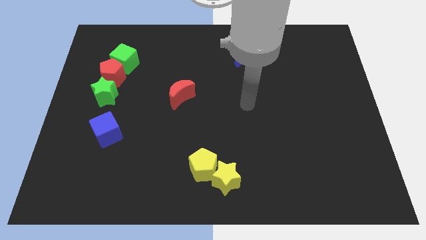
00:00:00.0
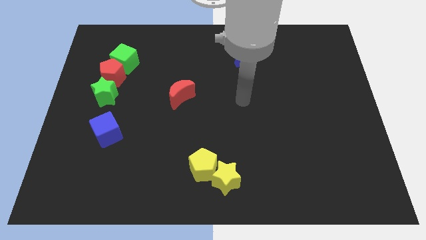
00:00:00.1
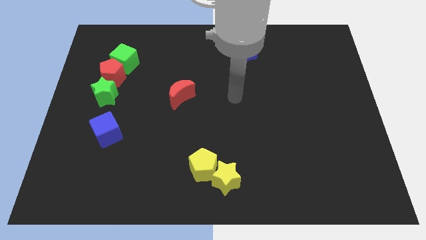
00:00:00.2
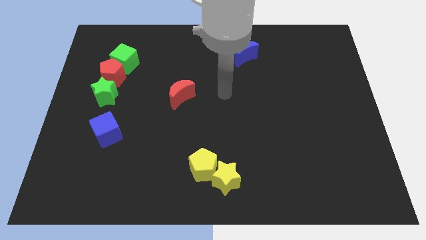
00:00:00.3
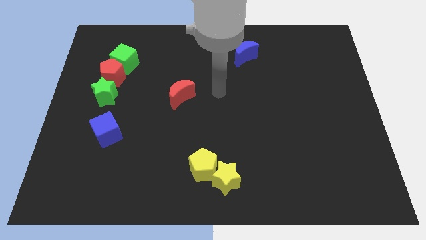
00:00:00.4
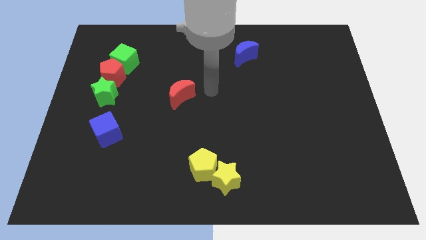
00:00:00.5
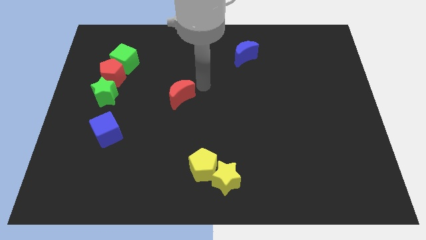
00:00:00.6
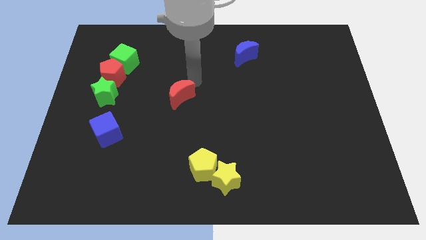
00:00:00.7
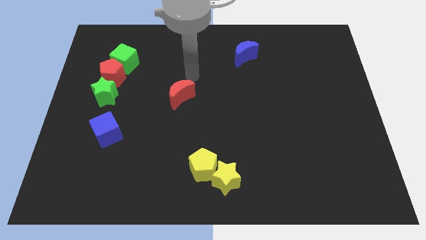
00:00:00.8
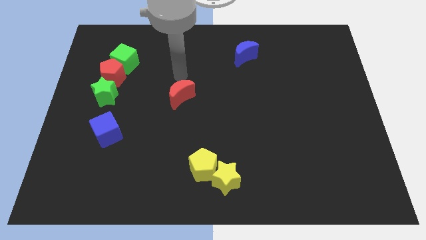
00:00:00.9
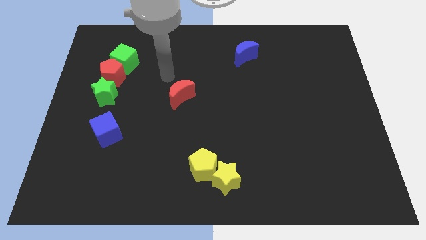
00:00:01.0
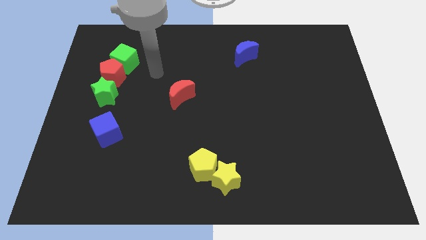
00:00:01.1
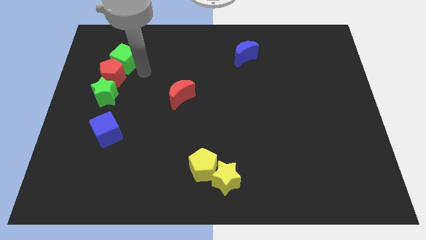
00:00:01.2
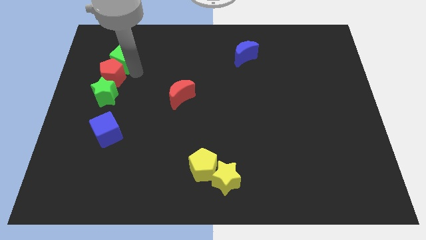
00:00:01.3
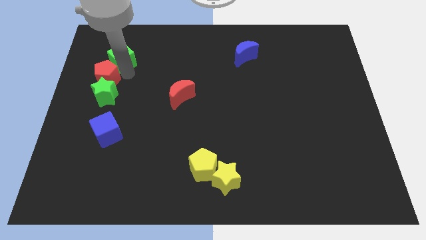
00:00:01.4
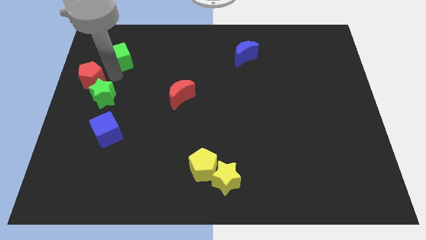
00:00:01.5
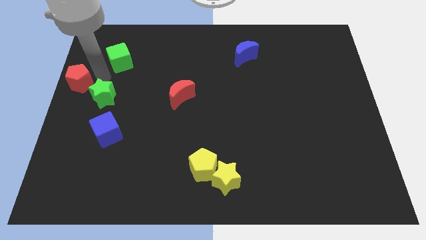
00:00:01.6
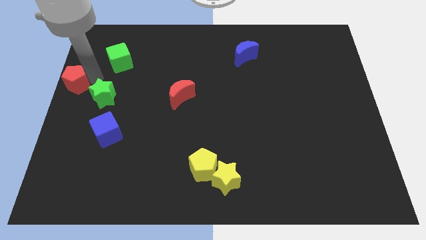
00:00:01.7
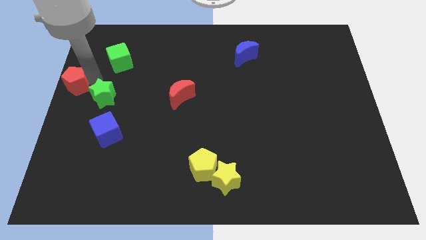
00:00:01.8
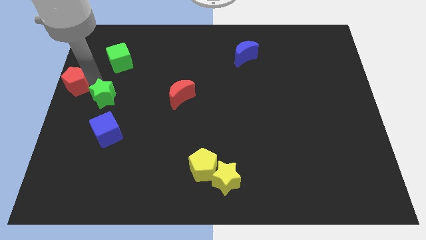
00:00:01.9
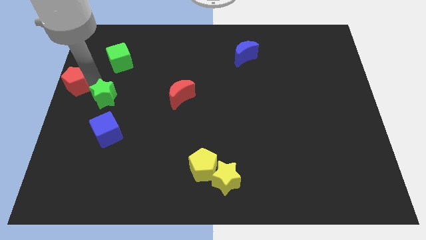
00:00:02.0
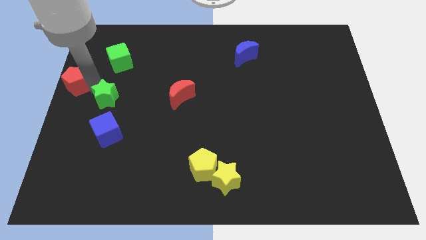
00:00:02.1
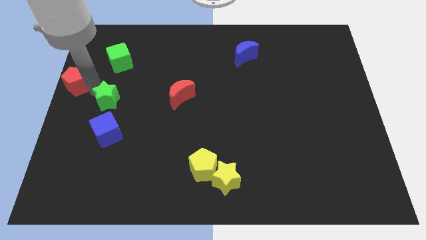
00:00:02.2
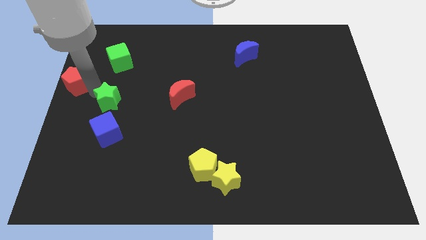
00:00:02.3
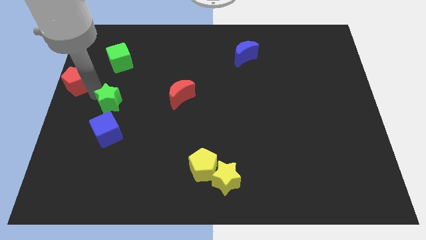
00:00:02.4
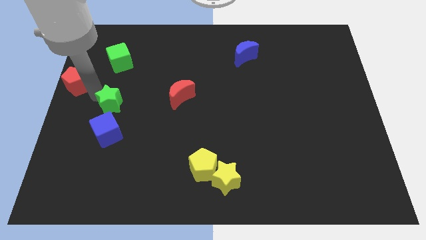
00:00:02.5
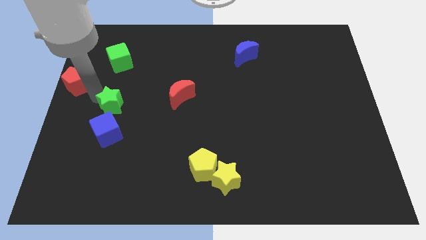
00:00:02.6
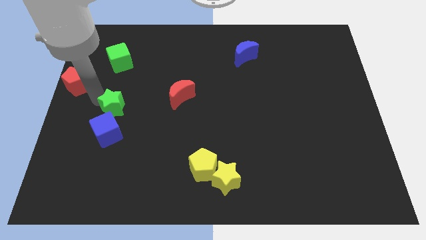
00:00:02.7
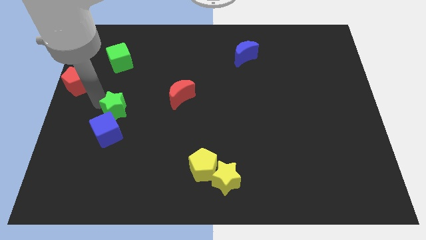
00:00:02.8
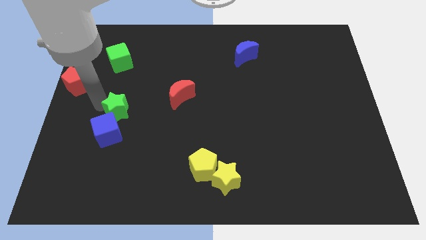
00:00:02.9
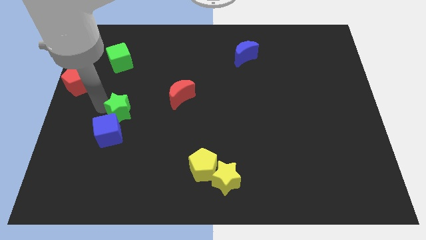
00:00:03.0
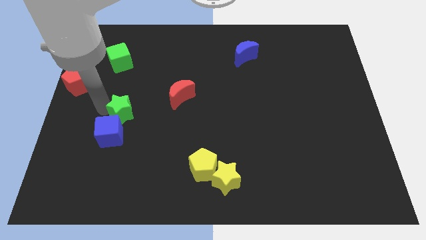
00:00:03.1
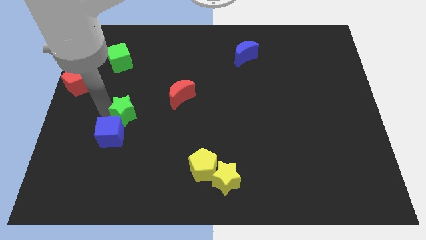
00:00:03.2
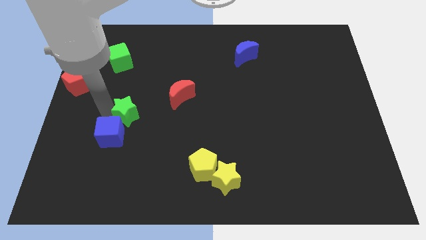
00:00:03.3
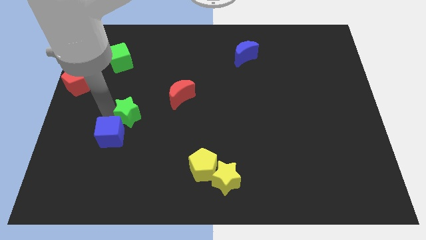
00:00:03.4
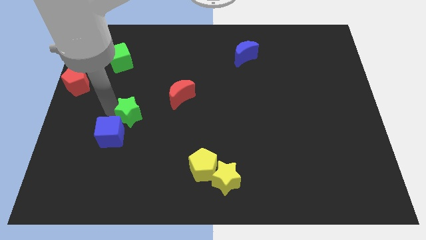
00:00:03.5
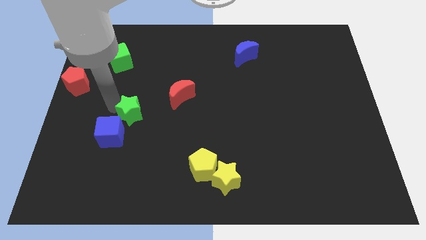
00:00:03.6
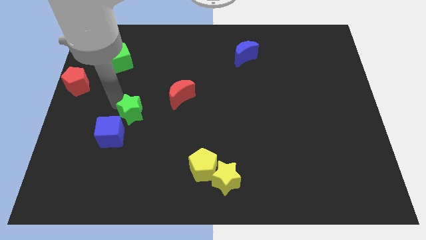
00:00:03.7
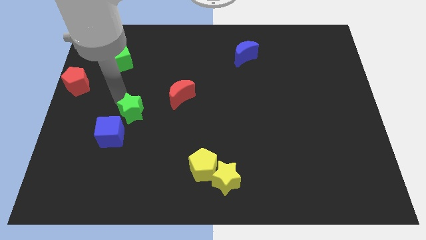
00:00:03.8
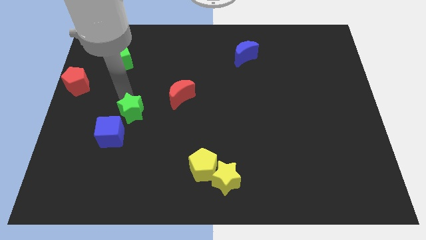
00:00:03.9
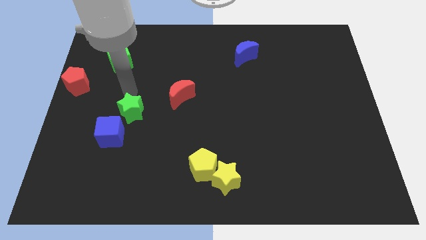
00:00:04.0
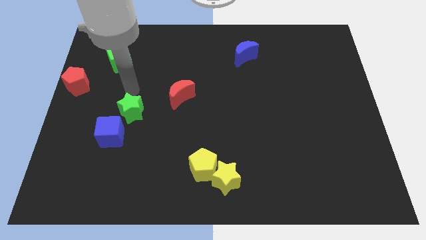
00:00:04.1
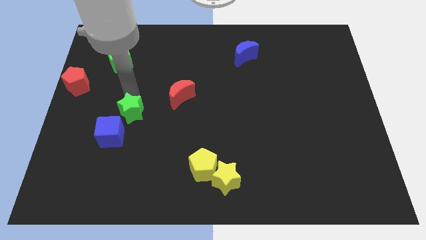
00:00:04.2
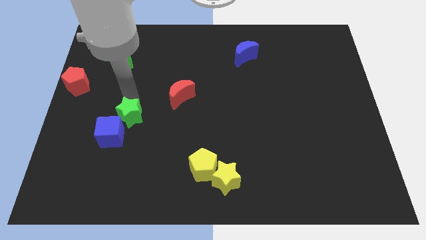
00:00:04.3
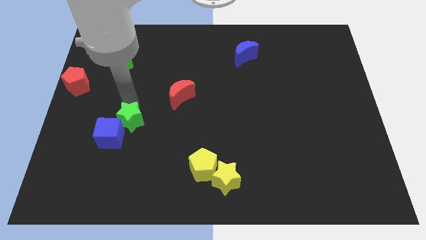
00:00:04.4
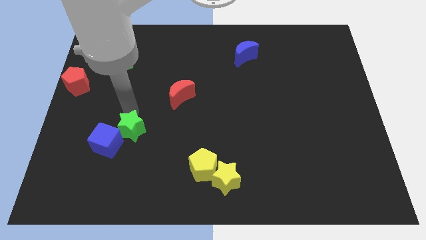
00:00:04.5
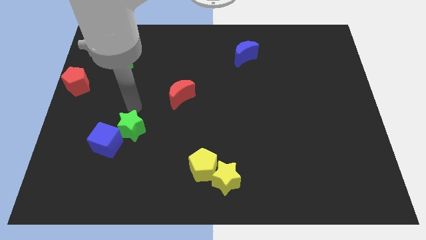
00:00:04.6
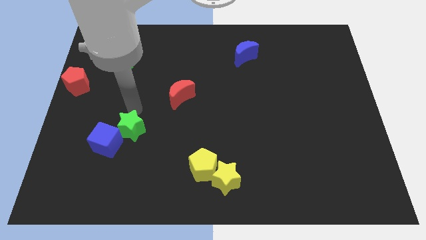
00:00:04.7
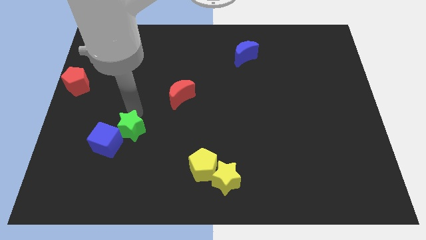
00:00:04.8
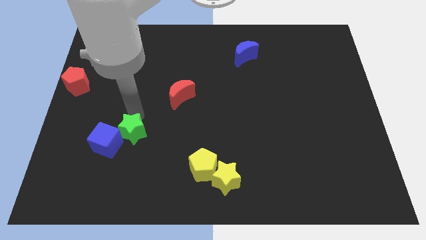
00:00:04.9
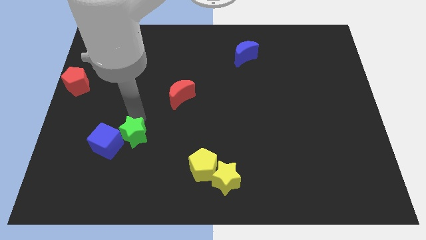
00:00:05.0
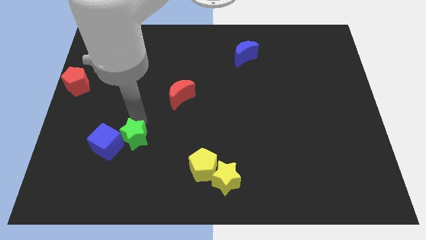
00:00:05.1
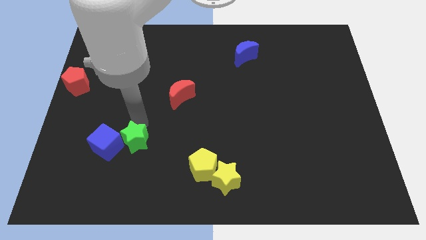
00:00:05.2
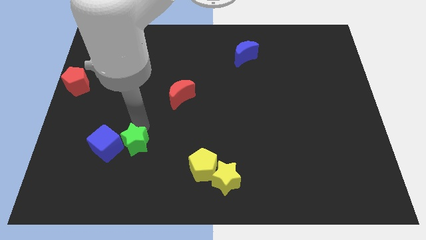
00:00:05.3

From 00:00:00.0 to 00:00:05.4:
put the green star to the bottom right side of the blue cube

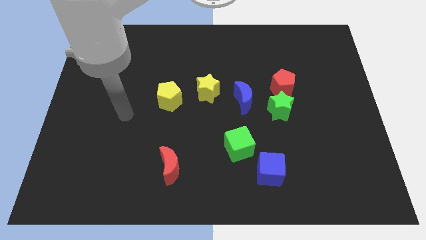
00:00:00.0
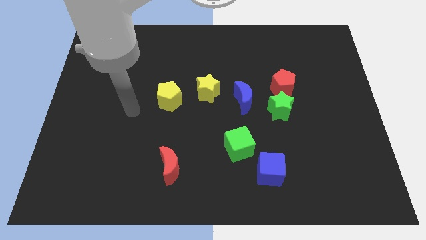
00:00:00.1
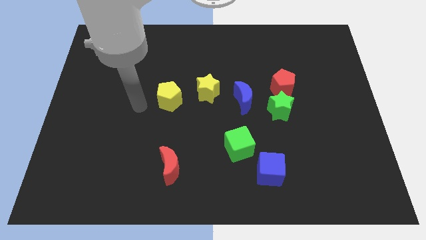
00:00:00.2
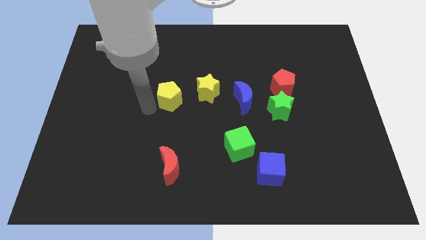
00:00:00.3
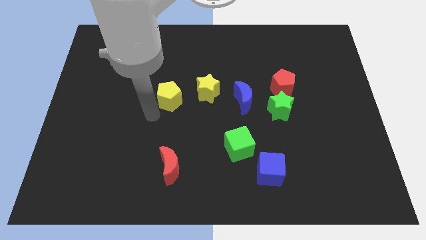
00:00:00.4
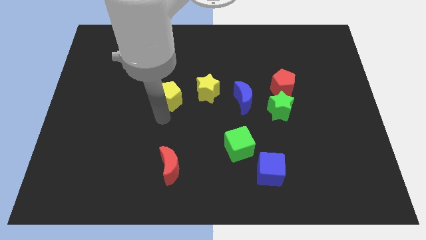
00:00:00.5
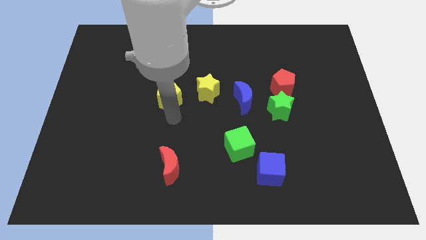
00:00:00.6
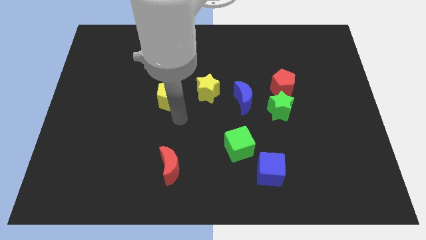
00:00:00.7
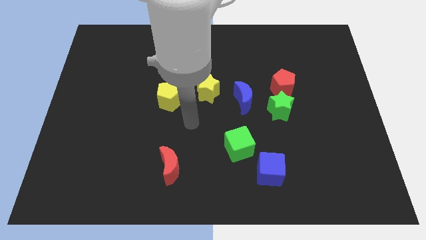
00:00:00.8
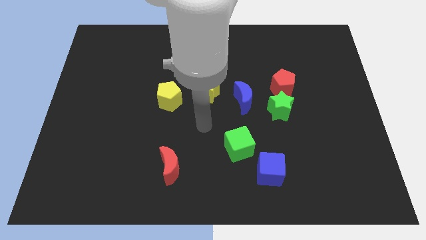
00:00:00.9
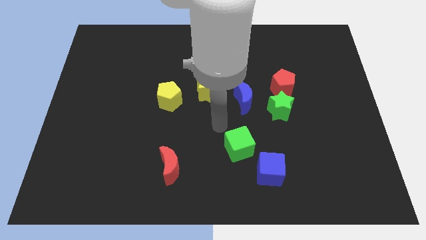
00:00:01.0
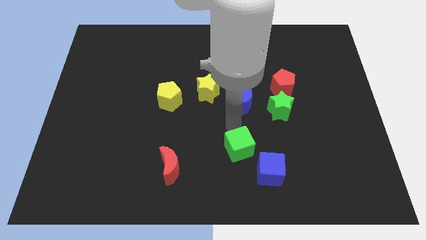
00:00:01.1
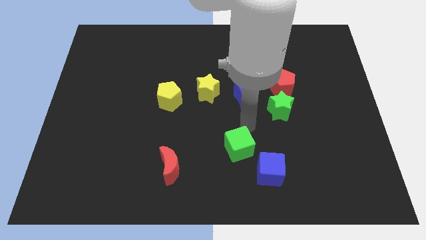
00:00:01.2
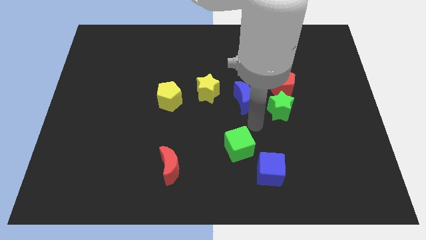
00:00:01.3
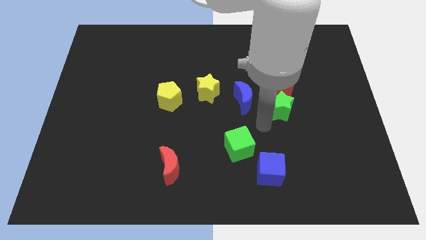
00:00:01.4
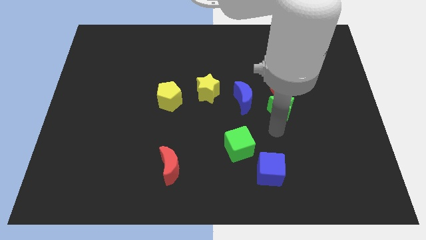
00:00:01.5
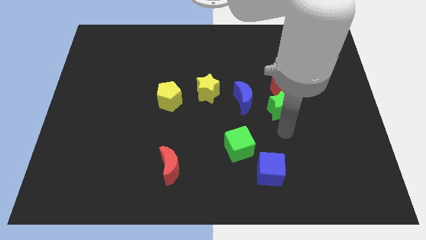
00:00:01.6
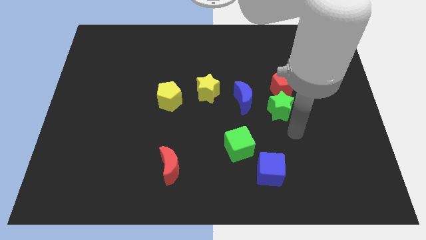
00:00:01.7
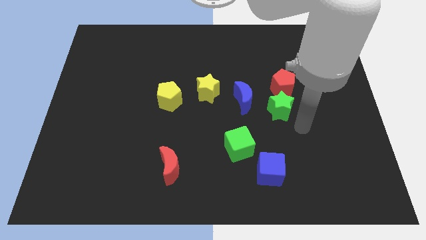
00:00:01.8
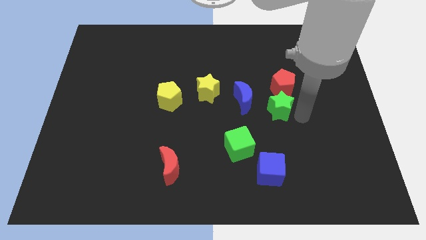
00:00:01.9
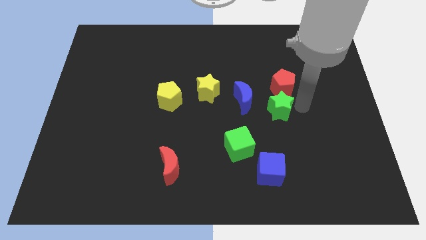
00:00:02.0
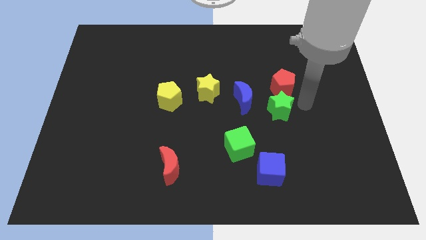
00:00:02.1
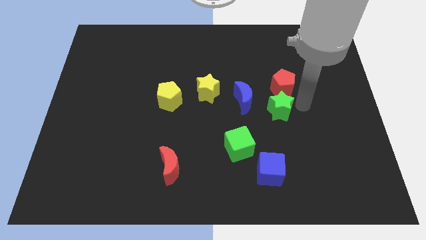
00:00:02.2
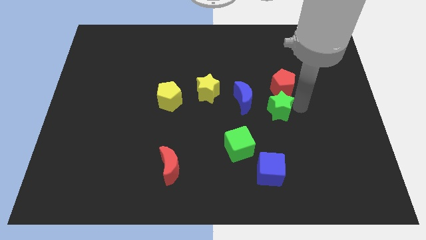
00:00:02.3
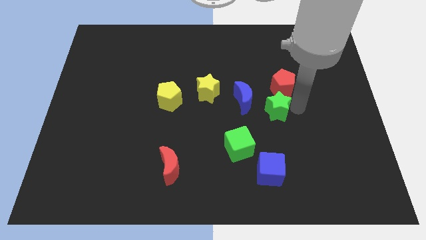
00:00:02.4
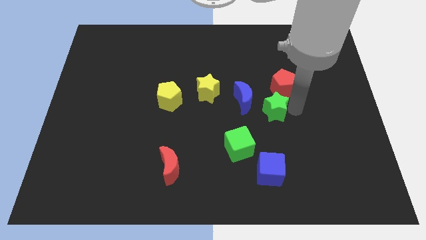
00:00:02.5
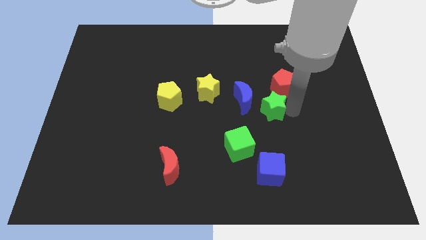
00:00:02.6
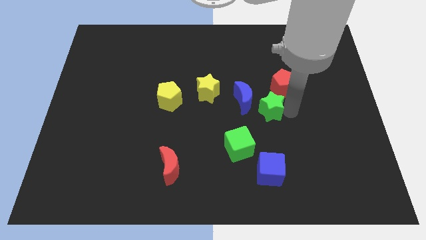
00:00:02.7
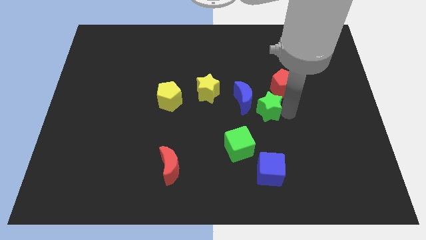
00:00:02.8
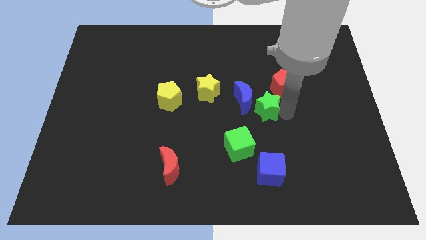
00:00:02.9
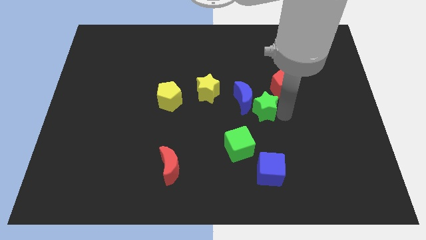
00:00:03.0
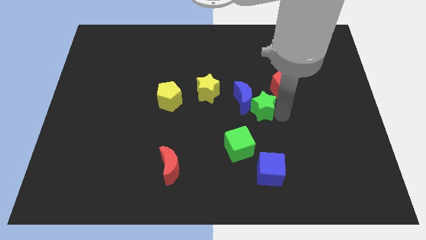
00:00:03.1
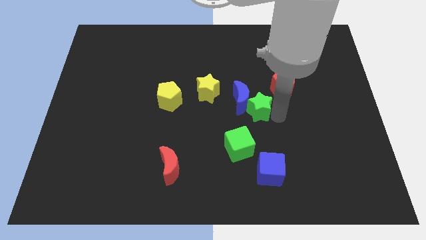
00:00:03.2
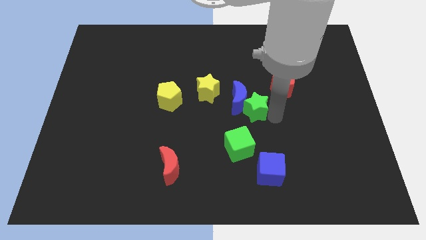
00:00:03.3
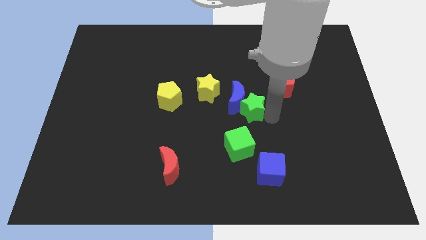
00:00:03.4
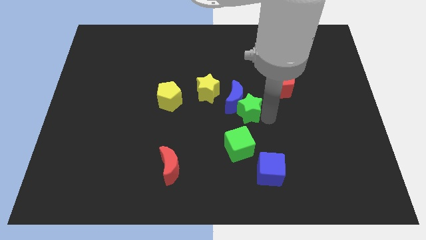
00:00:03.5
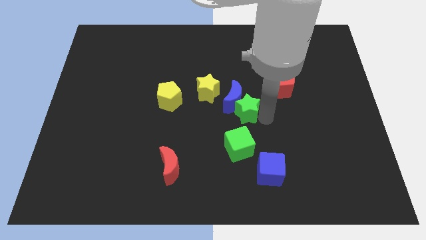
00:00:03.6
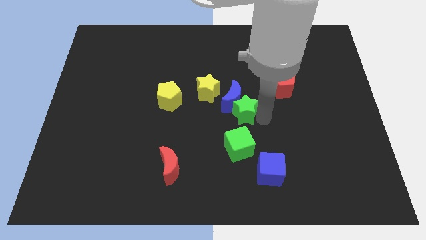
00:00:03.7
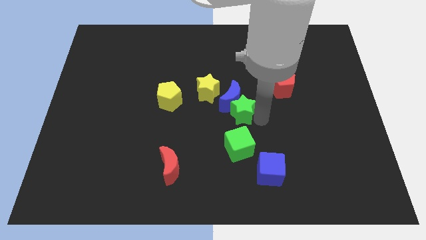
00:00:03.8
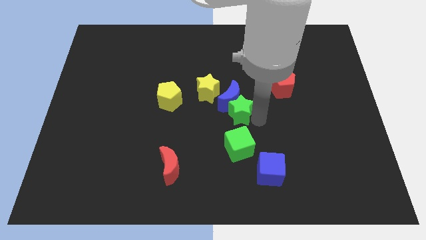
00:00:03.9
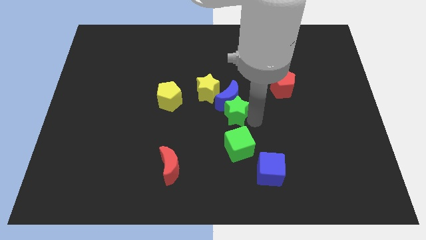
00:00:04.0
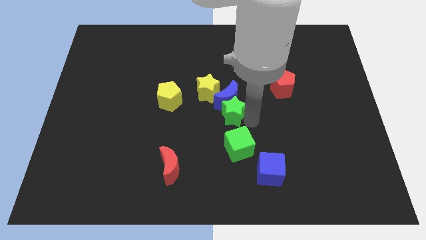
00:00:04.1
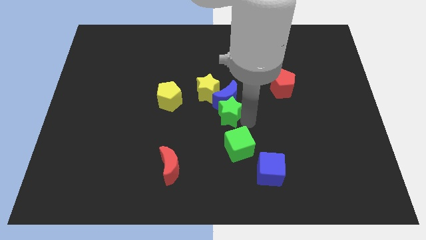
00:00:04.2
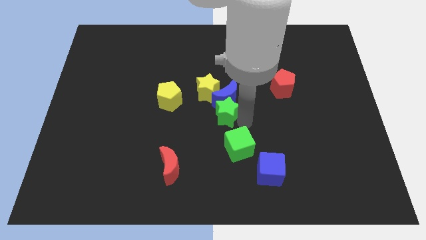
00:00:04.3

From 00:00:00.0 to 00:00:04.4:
put the green star to the bottom side of the yellow star
